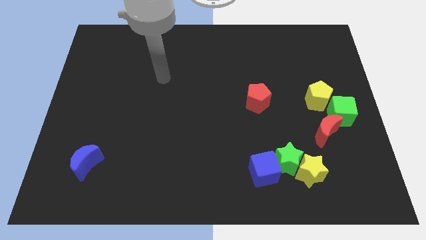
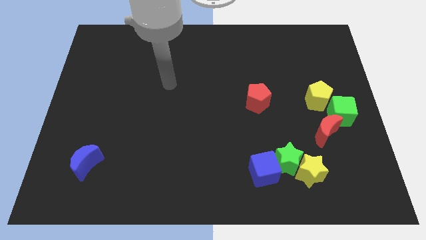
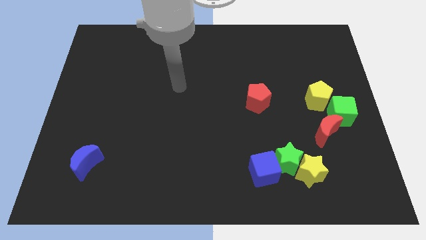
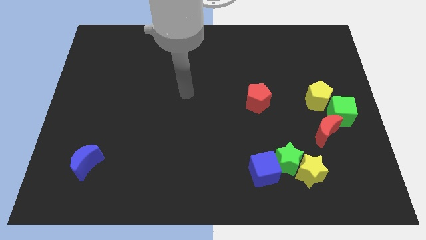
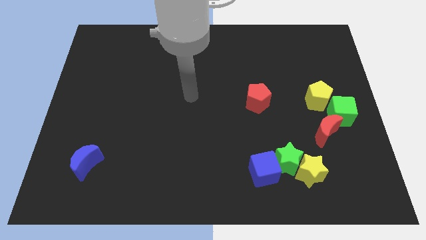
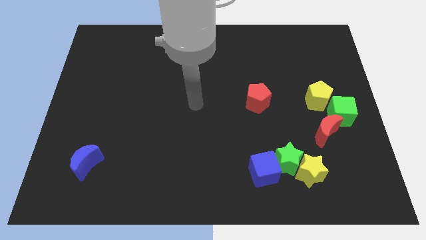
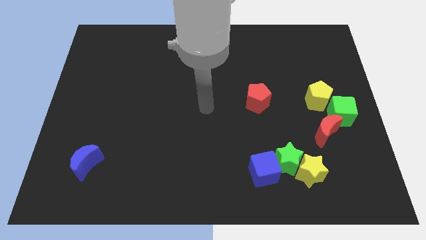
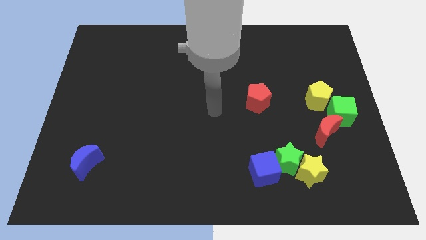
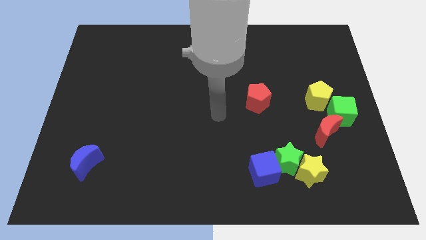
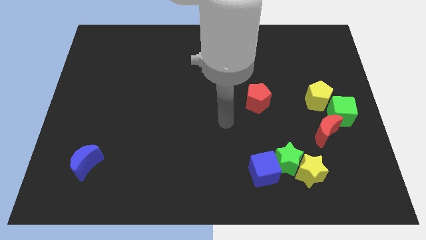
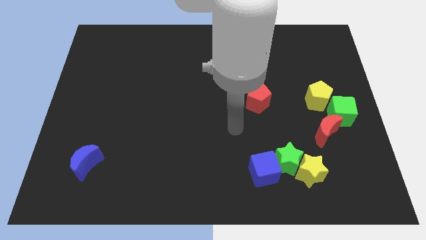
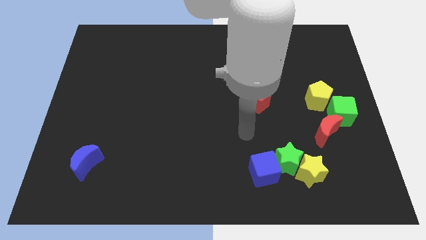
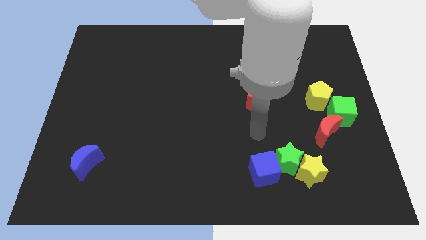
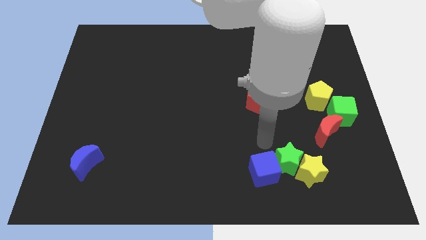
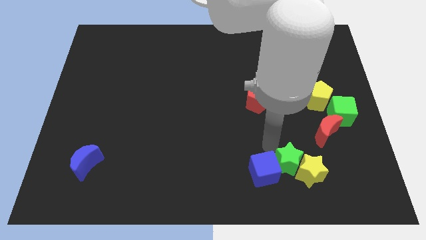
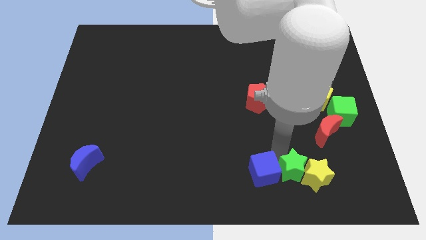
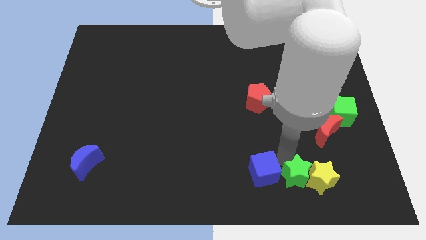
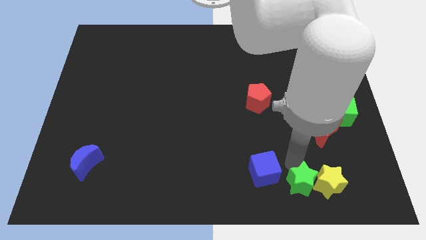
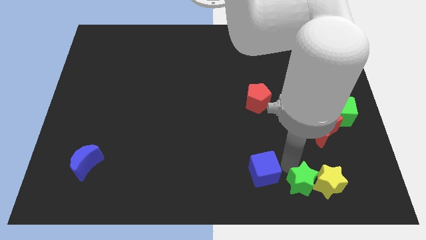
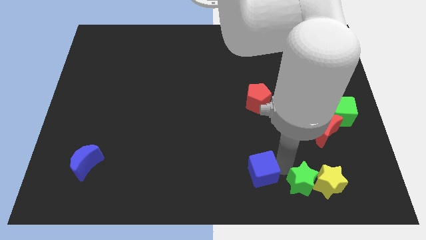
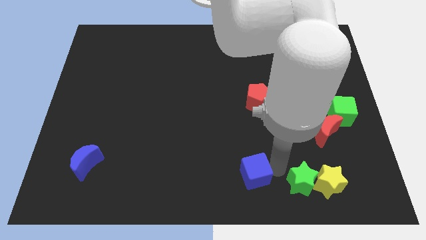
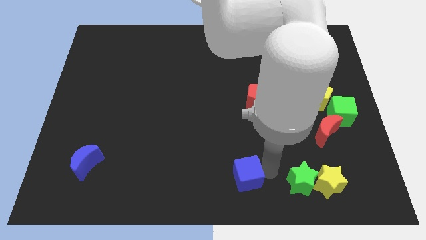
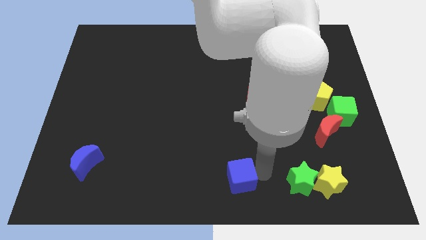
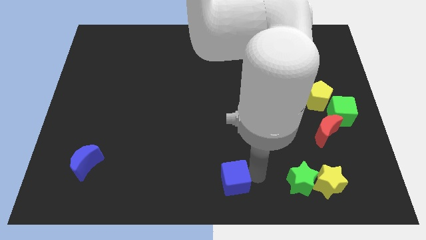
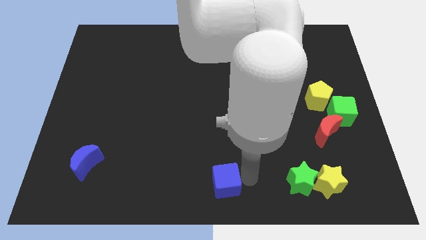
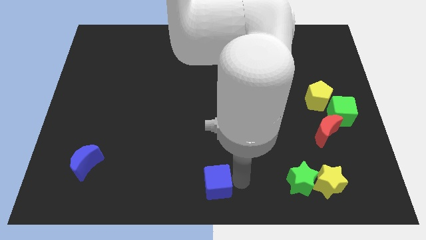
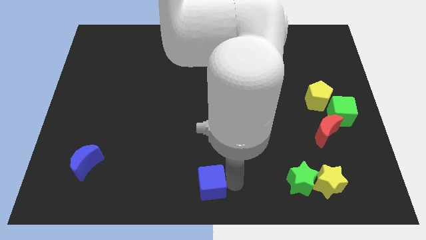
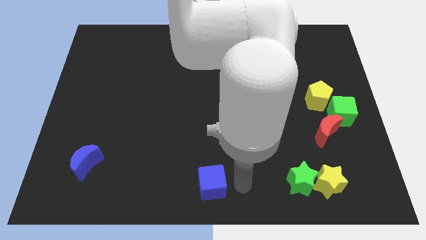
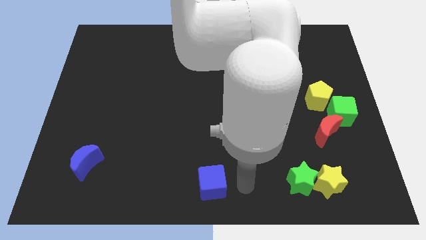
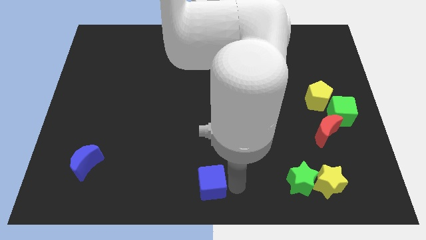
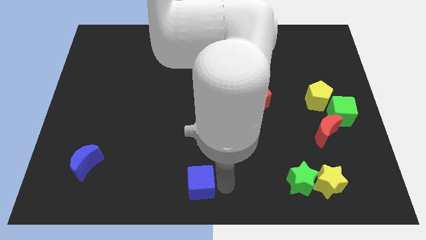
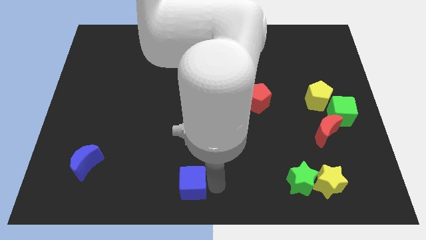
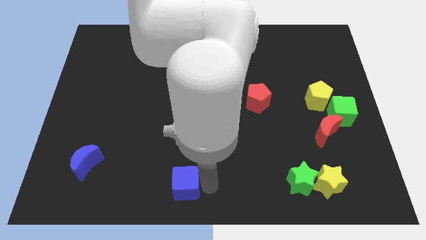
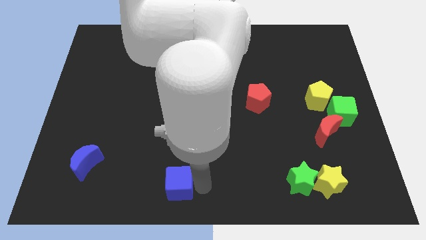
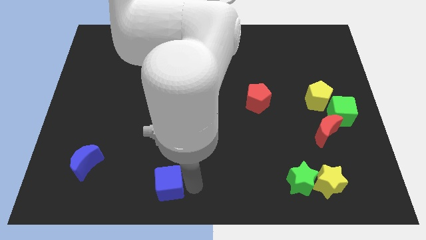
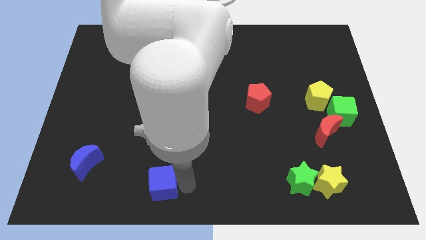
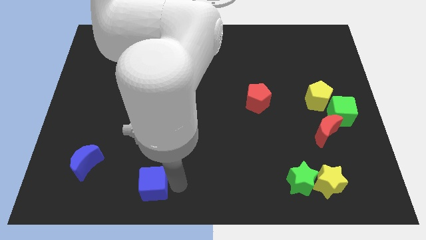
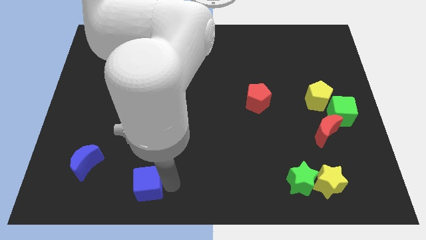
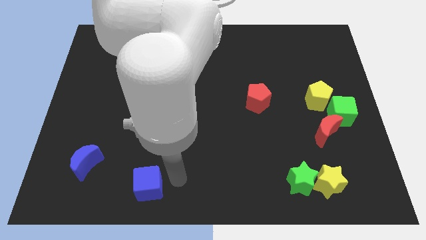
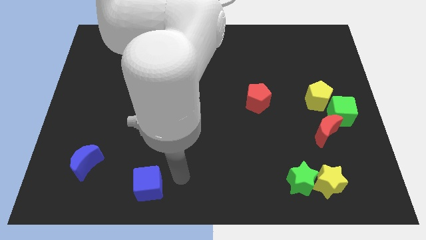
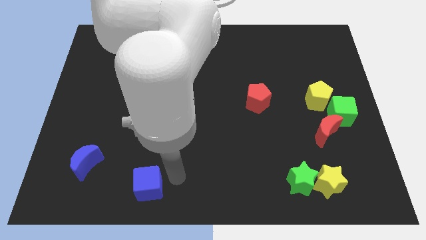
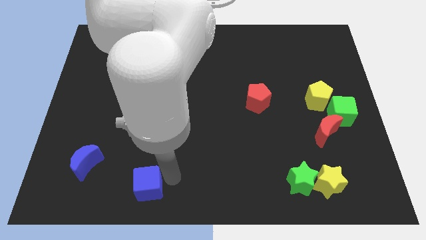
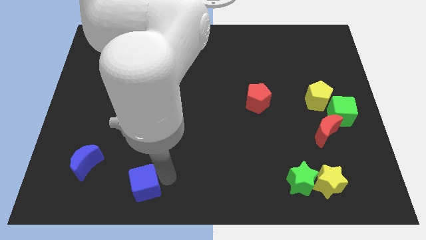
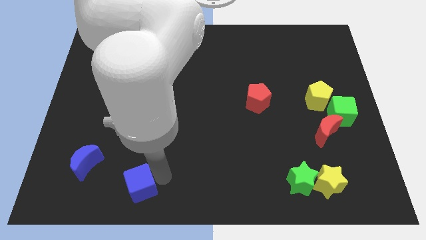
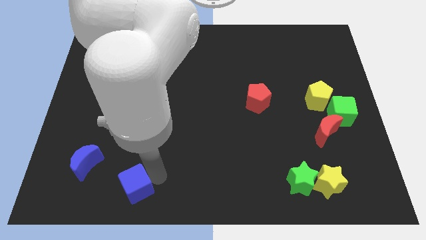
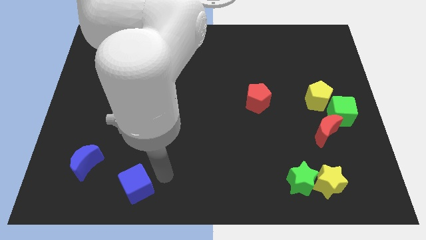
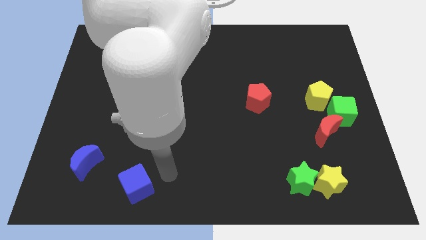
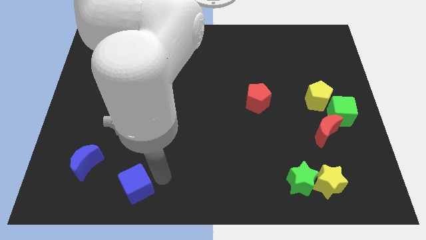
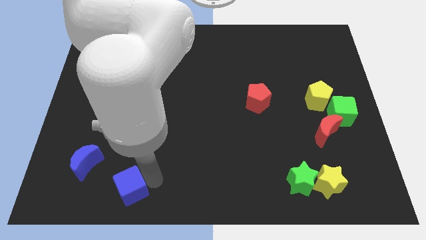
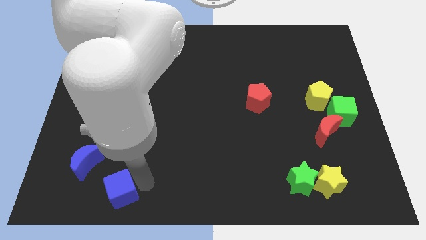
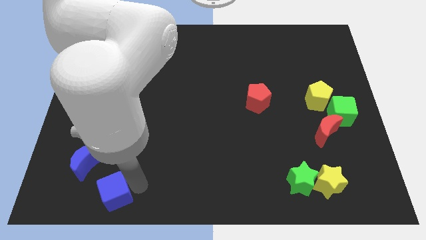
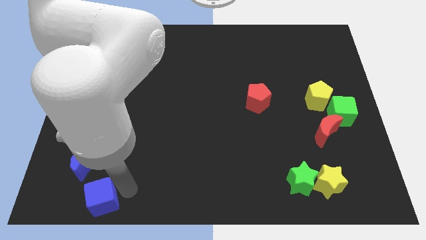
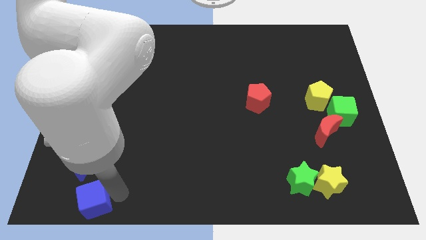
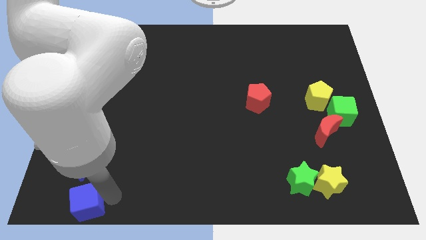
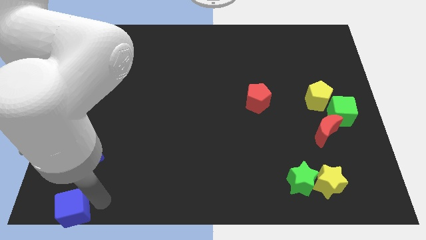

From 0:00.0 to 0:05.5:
slide the blue cube to the bottom left

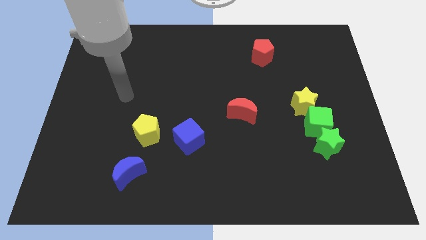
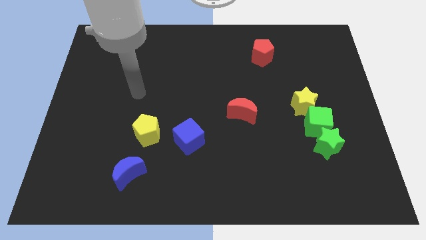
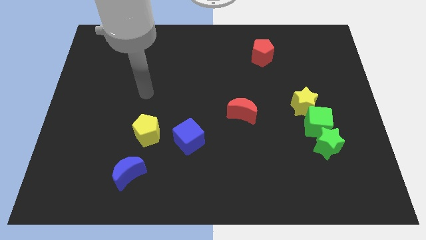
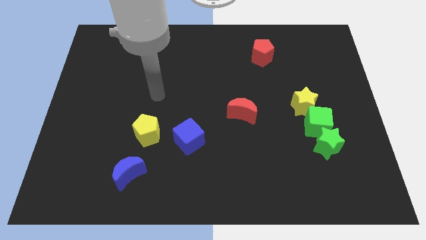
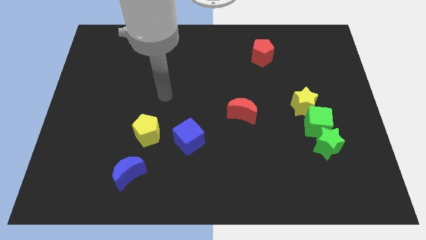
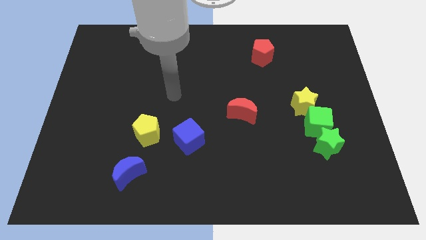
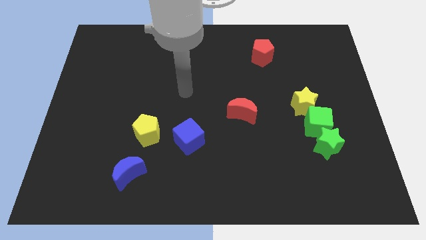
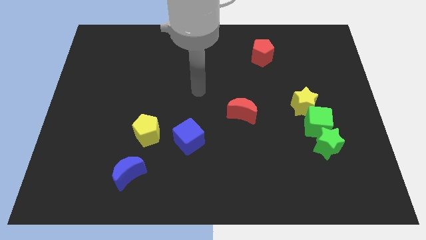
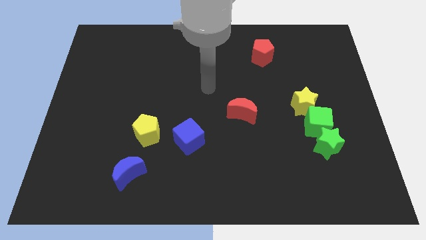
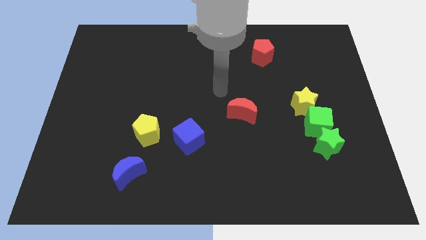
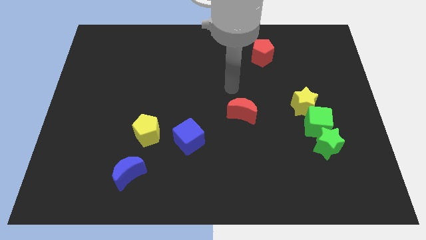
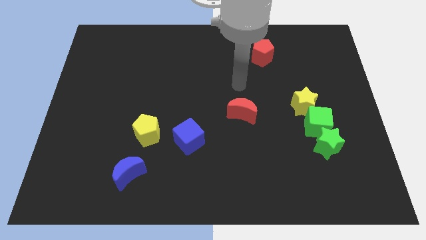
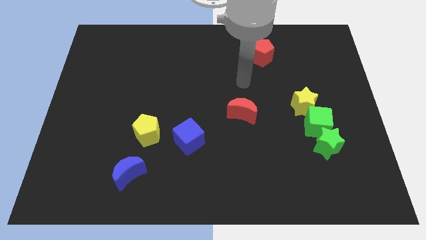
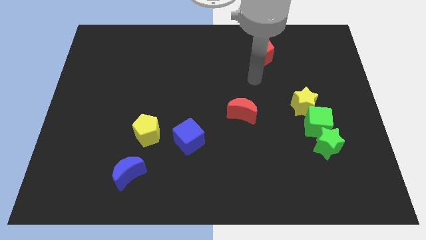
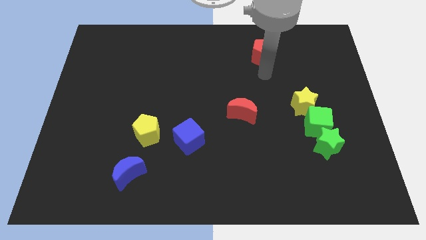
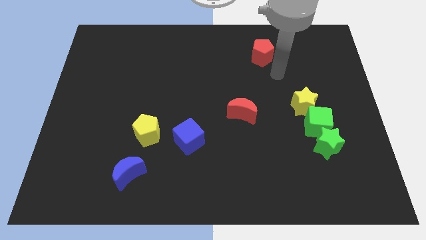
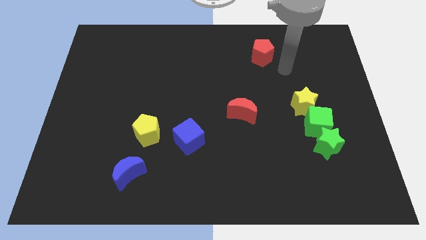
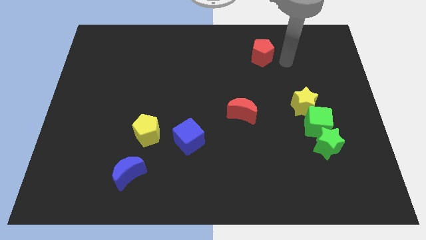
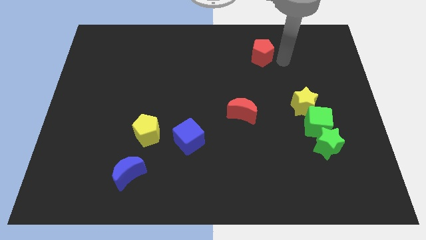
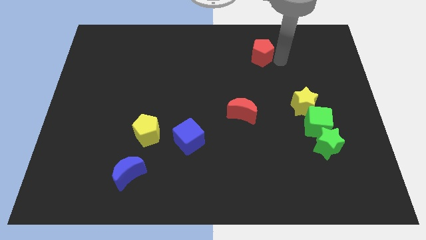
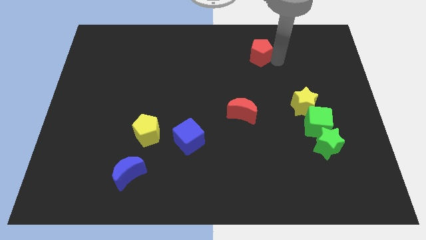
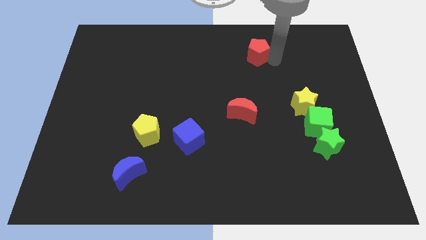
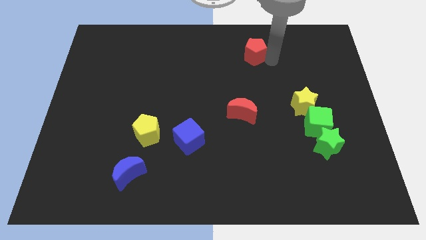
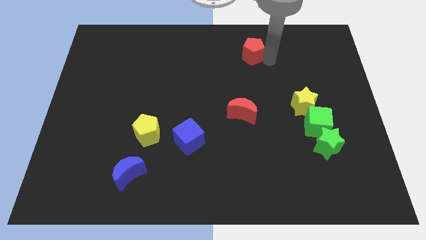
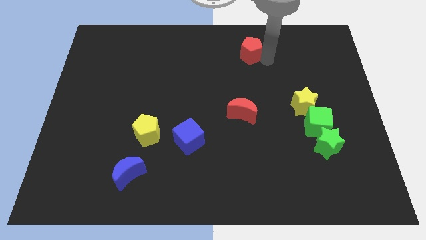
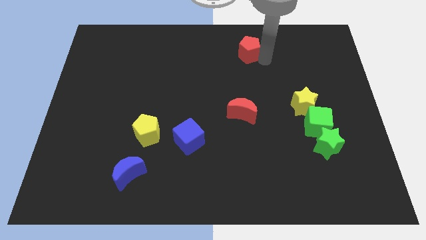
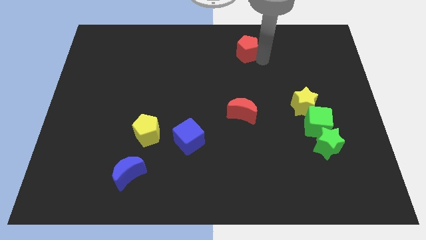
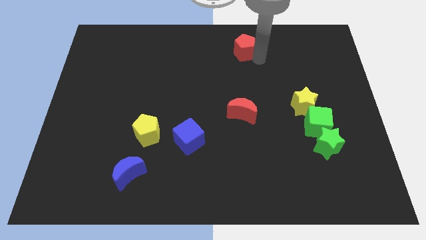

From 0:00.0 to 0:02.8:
slide the red pentagon to the top
